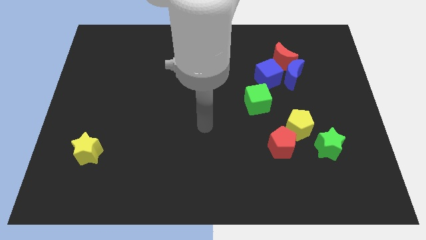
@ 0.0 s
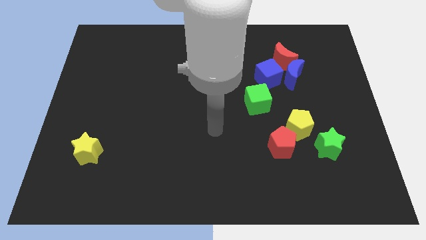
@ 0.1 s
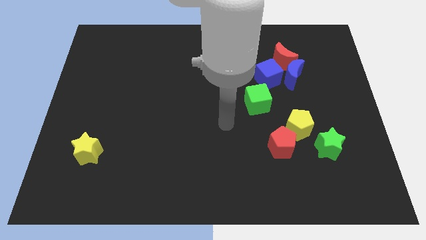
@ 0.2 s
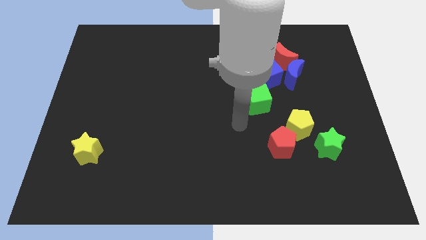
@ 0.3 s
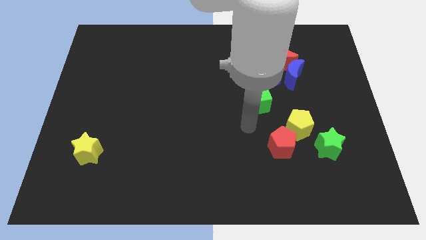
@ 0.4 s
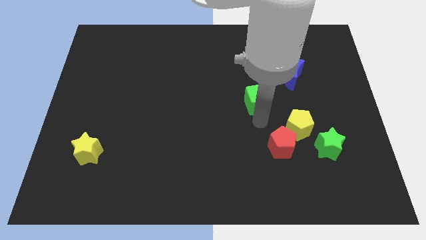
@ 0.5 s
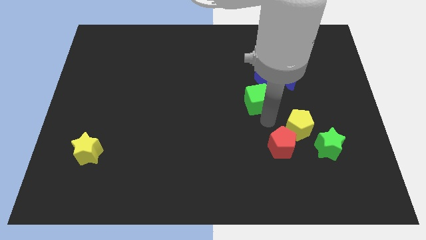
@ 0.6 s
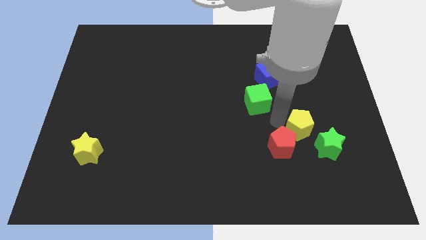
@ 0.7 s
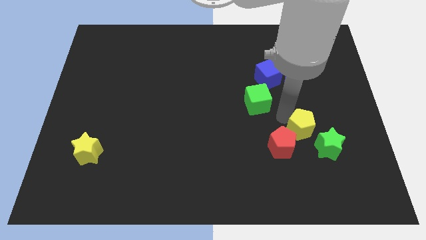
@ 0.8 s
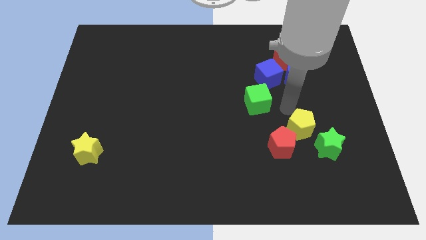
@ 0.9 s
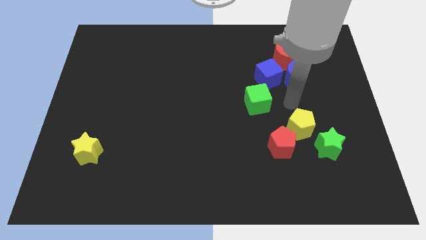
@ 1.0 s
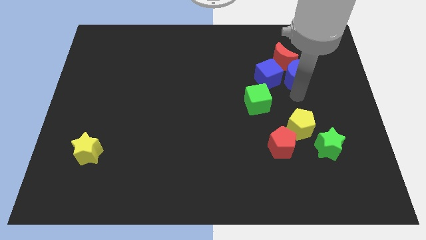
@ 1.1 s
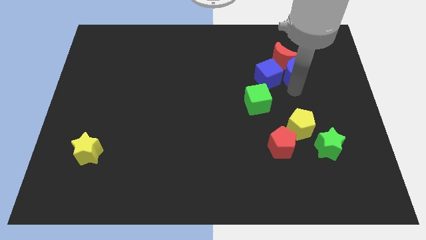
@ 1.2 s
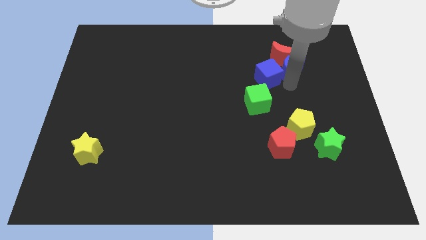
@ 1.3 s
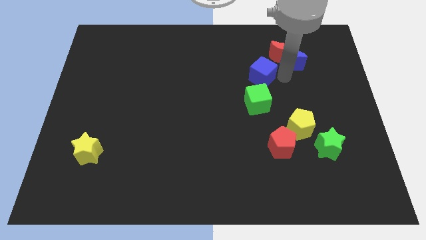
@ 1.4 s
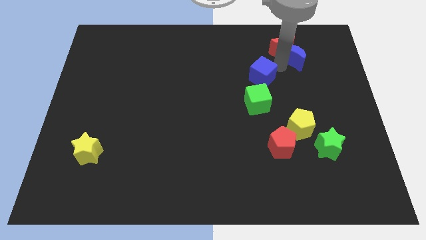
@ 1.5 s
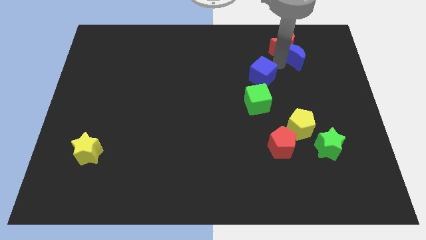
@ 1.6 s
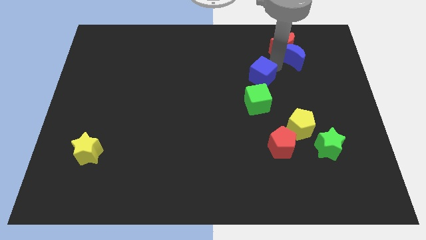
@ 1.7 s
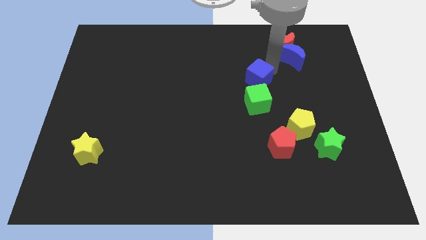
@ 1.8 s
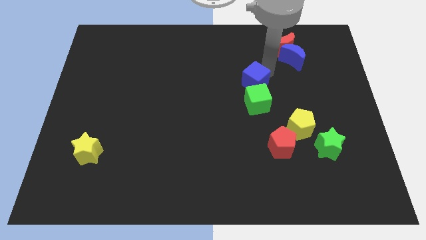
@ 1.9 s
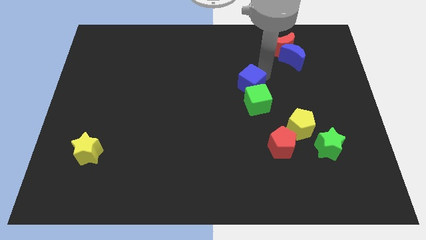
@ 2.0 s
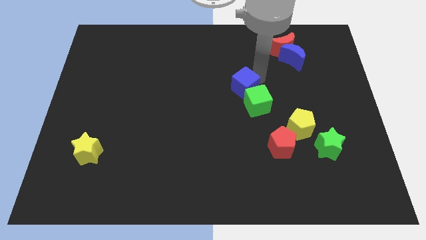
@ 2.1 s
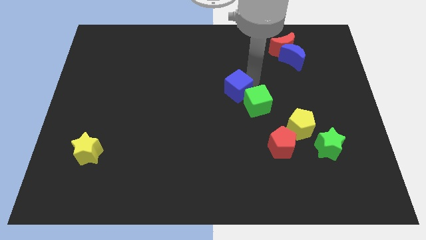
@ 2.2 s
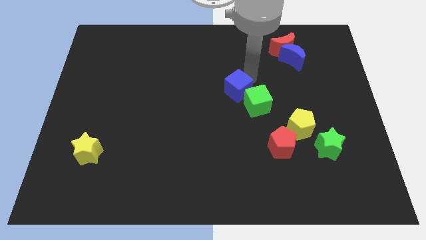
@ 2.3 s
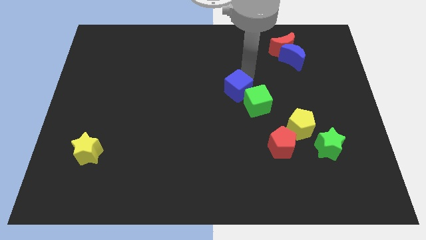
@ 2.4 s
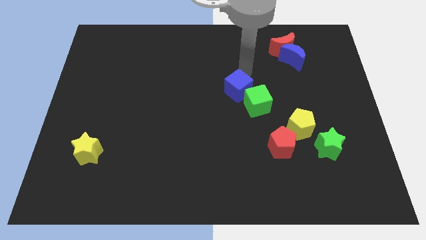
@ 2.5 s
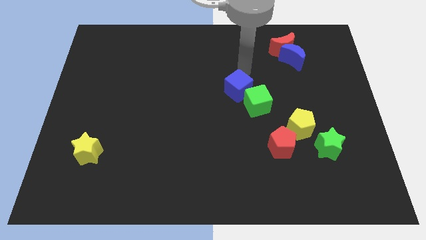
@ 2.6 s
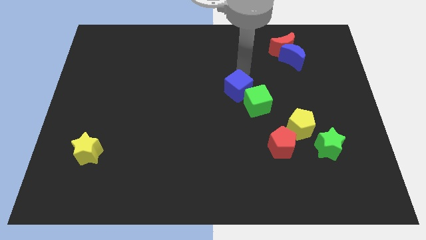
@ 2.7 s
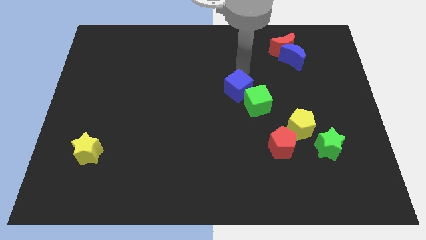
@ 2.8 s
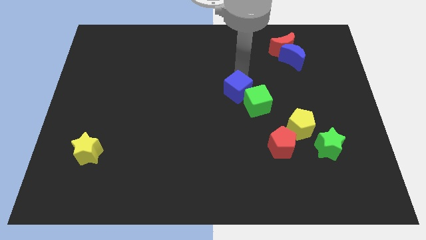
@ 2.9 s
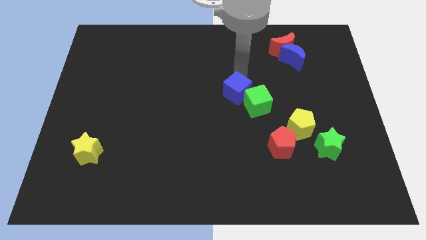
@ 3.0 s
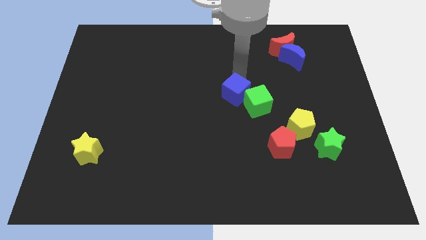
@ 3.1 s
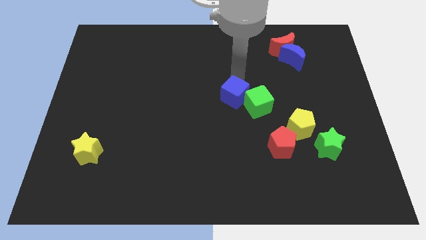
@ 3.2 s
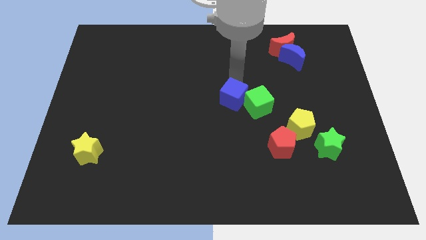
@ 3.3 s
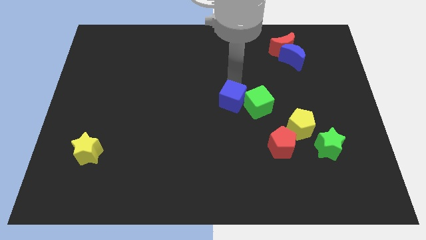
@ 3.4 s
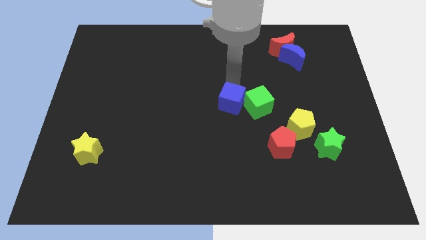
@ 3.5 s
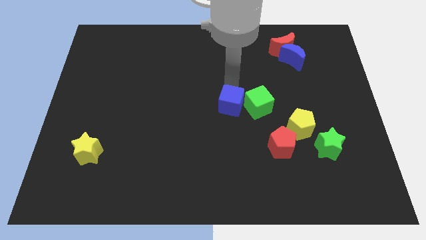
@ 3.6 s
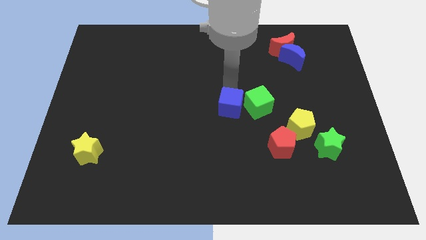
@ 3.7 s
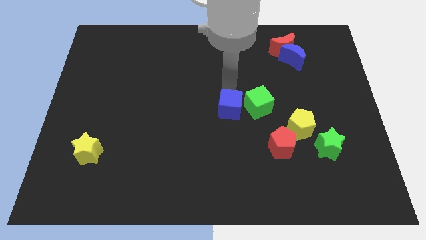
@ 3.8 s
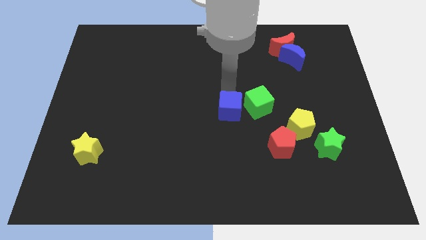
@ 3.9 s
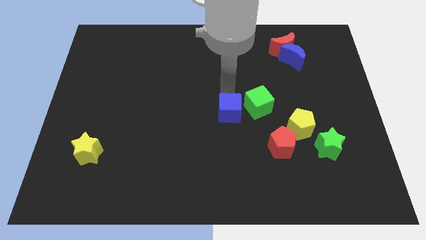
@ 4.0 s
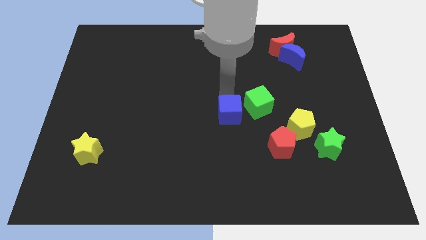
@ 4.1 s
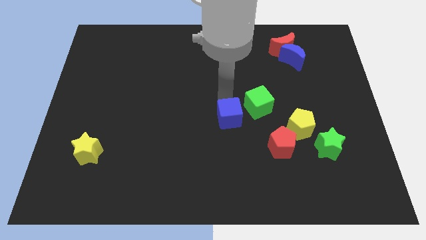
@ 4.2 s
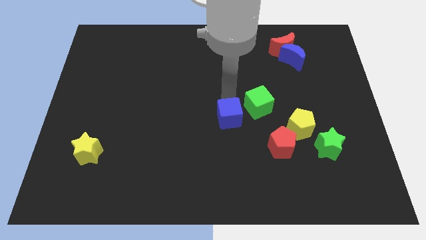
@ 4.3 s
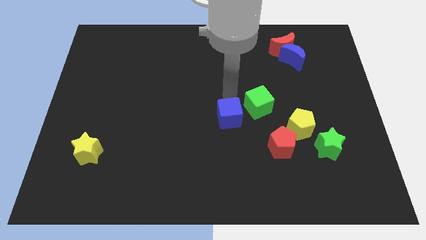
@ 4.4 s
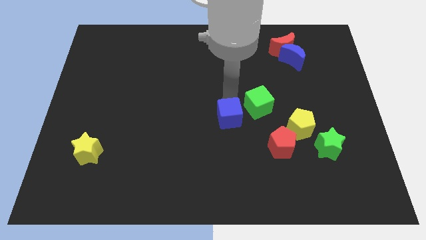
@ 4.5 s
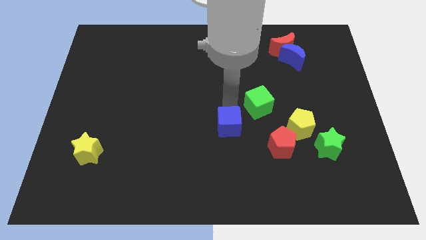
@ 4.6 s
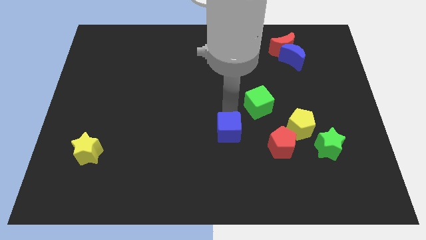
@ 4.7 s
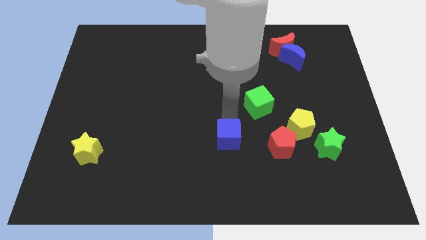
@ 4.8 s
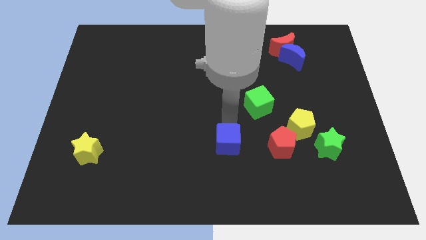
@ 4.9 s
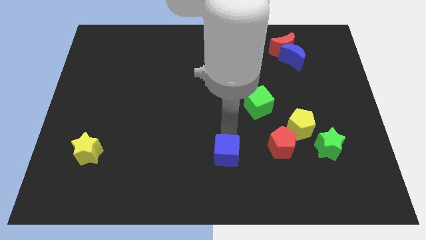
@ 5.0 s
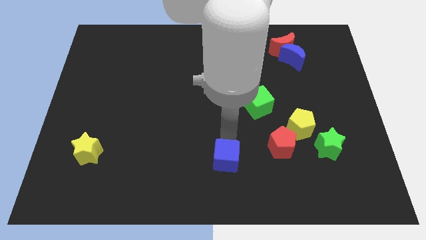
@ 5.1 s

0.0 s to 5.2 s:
move the blue cube to the bottom

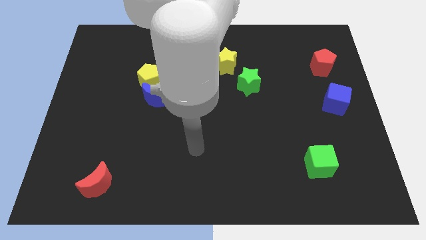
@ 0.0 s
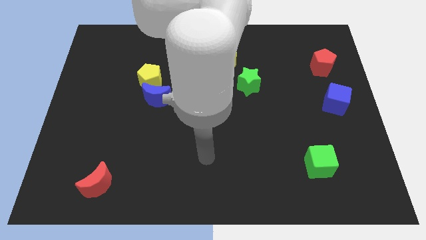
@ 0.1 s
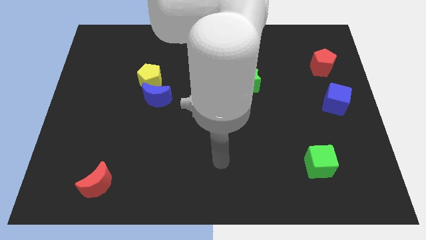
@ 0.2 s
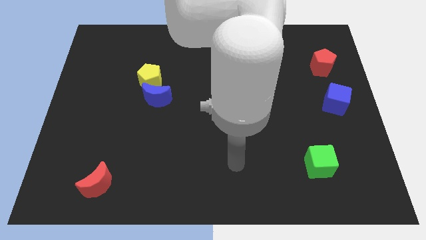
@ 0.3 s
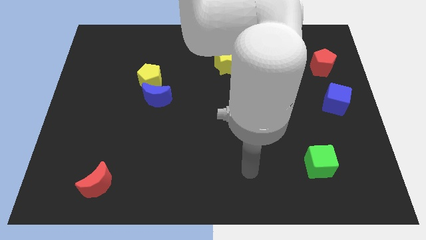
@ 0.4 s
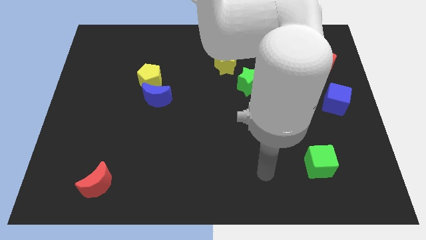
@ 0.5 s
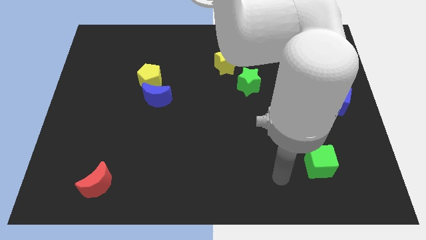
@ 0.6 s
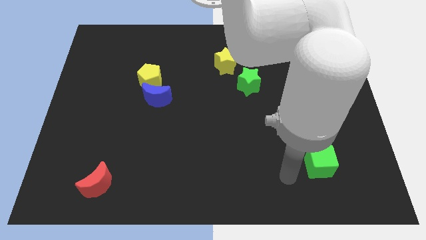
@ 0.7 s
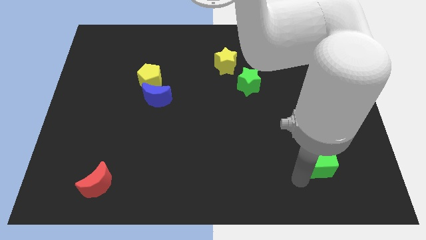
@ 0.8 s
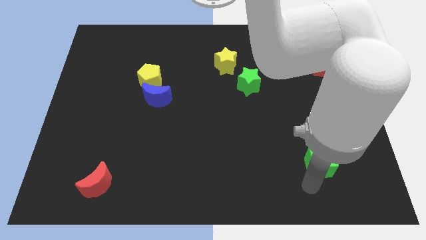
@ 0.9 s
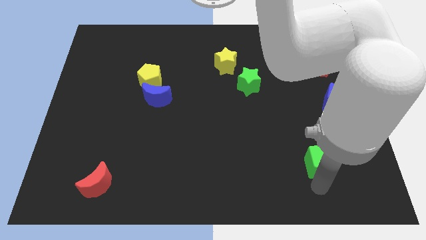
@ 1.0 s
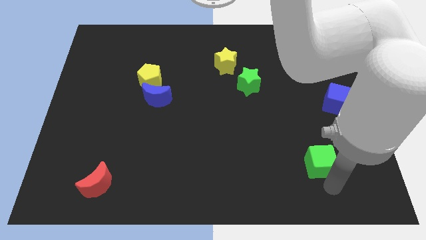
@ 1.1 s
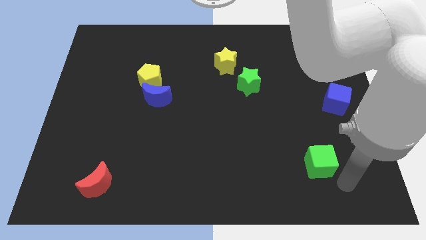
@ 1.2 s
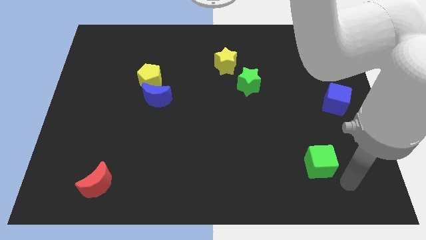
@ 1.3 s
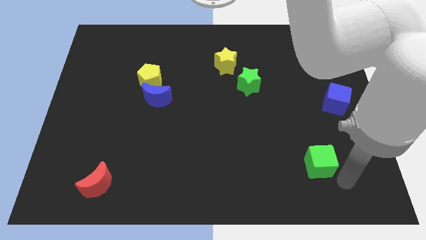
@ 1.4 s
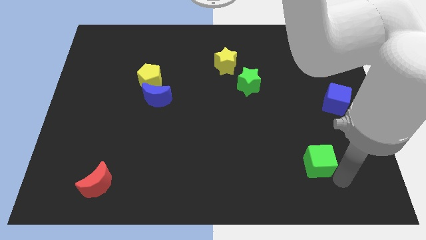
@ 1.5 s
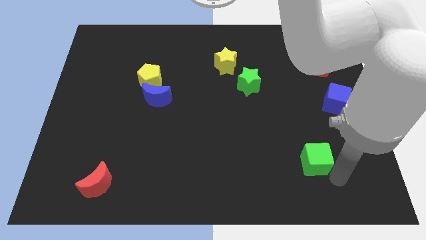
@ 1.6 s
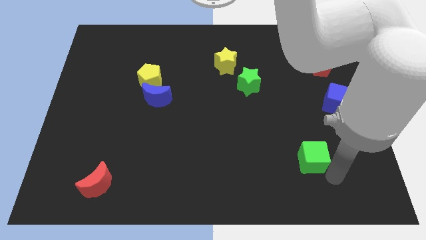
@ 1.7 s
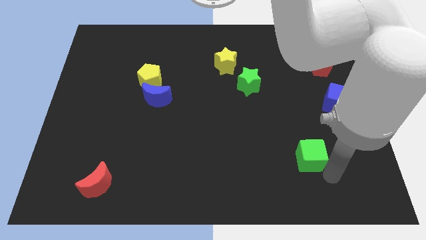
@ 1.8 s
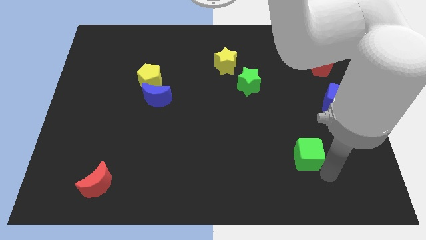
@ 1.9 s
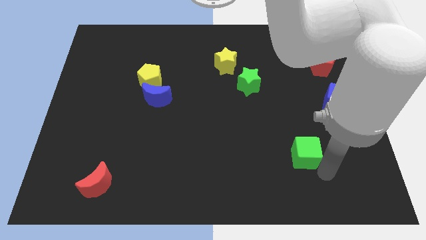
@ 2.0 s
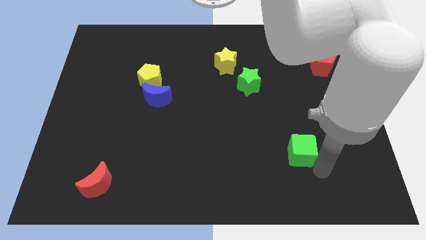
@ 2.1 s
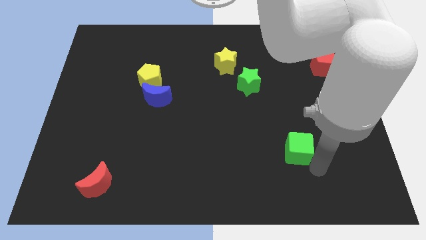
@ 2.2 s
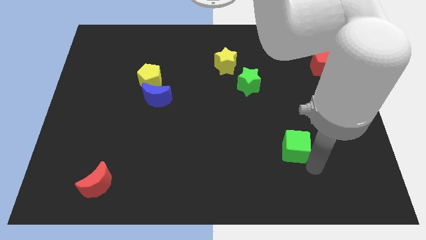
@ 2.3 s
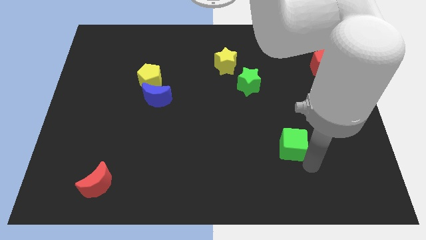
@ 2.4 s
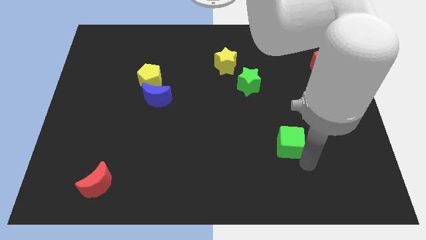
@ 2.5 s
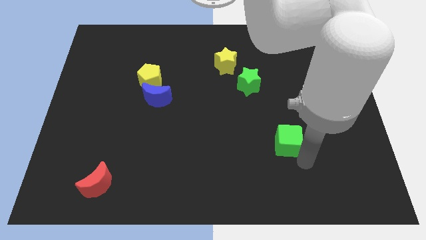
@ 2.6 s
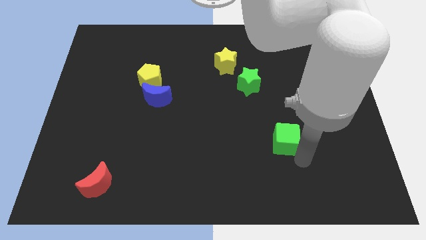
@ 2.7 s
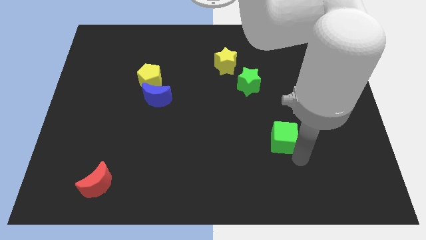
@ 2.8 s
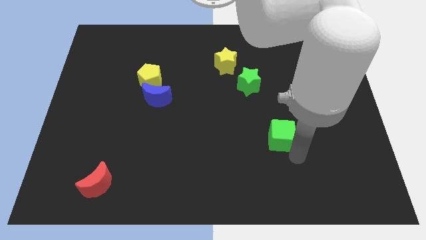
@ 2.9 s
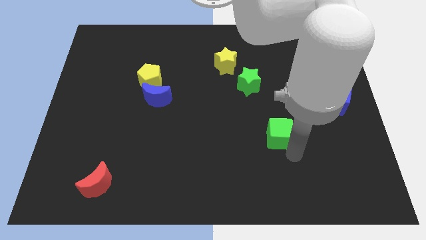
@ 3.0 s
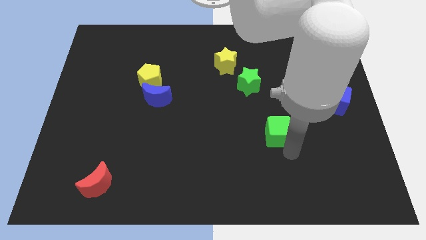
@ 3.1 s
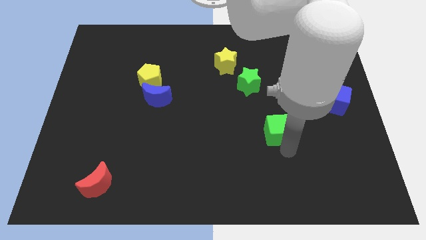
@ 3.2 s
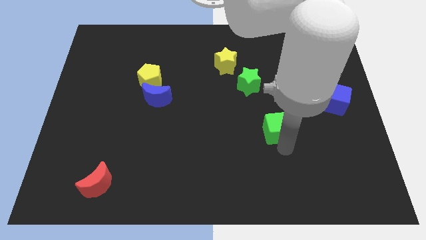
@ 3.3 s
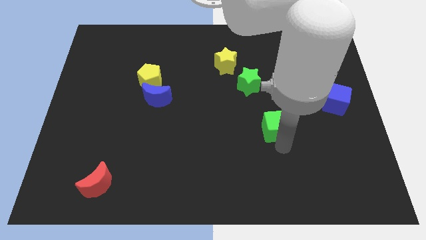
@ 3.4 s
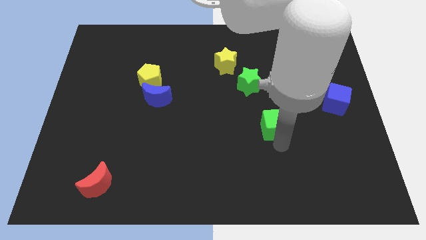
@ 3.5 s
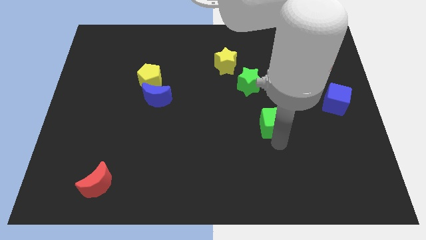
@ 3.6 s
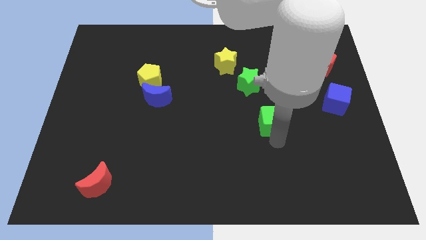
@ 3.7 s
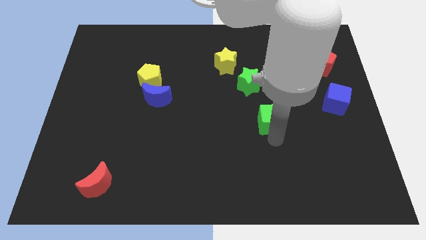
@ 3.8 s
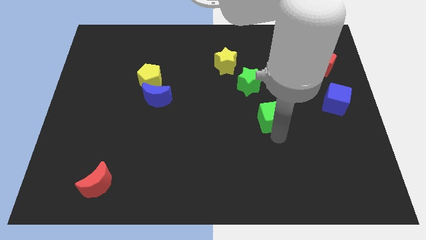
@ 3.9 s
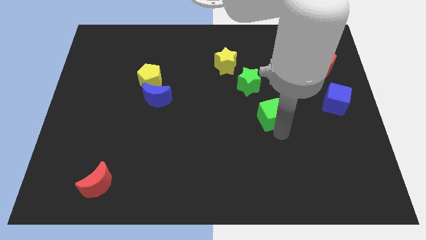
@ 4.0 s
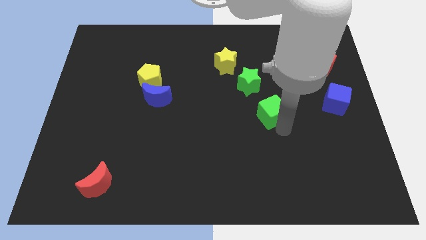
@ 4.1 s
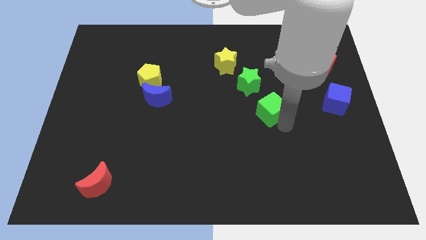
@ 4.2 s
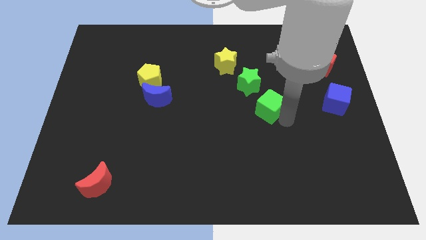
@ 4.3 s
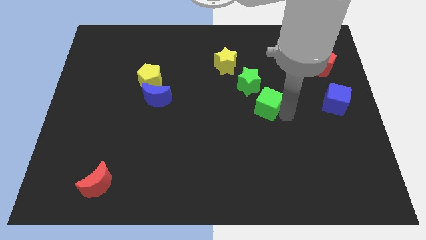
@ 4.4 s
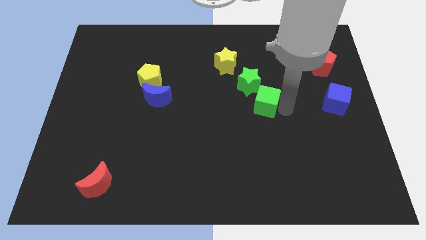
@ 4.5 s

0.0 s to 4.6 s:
move the green cube to the center
